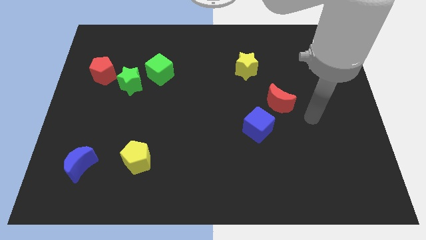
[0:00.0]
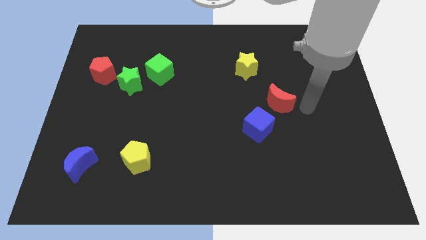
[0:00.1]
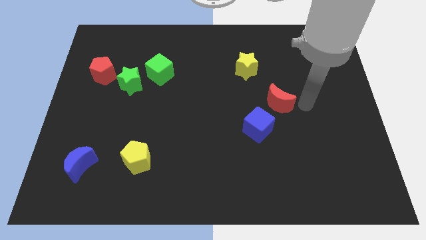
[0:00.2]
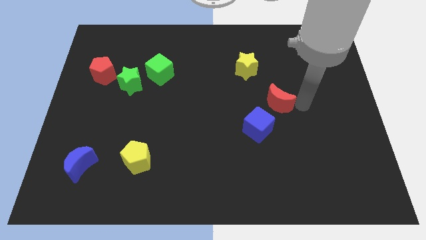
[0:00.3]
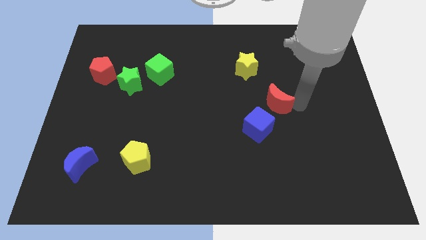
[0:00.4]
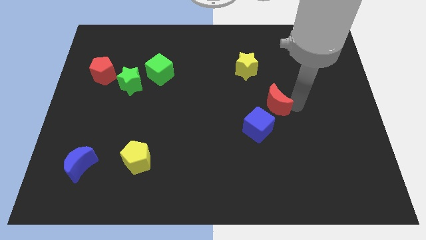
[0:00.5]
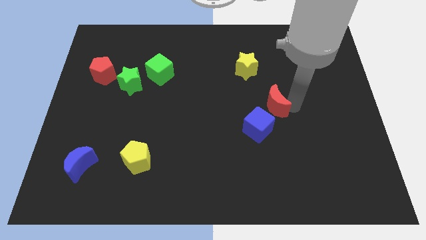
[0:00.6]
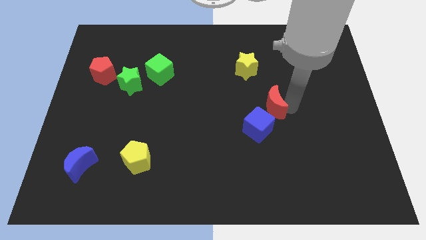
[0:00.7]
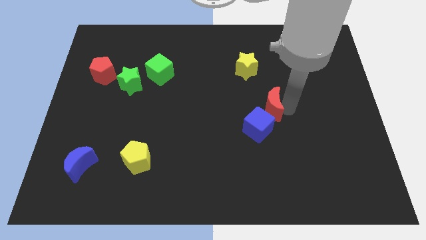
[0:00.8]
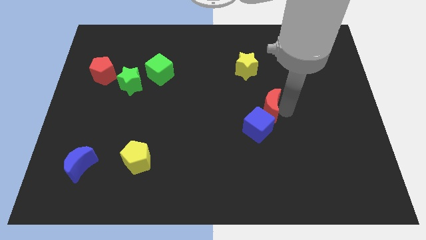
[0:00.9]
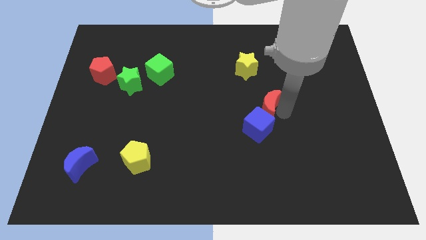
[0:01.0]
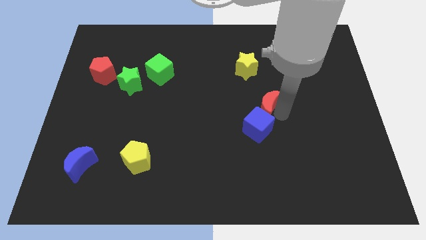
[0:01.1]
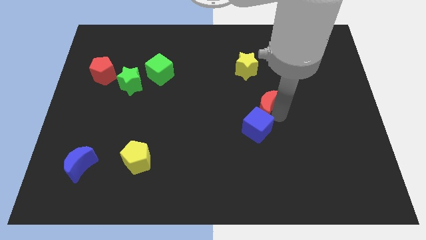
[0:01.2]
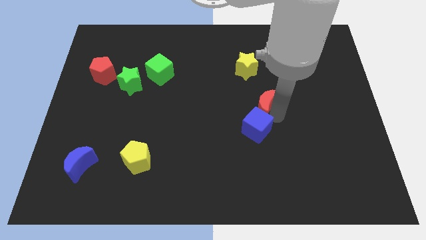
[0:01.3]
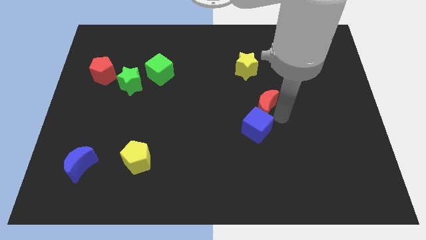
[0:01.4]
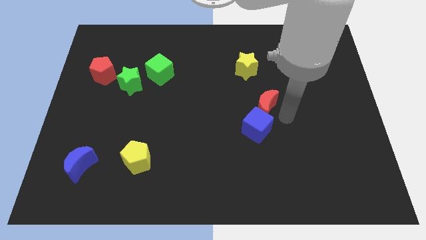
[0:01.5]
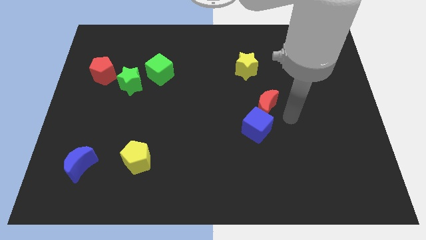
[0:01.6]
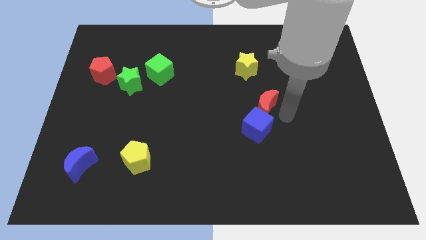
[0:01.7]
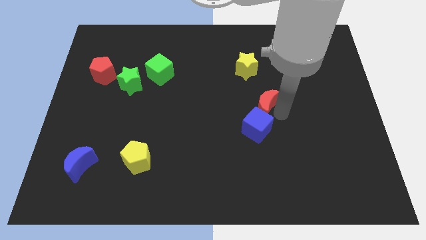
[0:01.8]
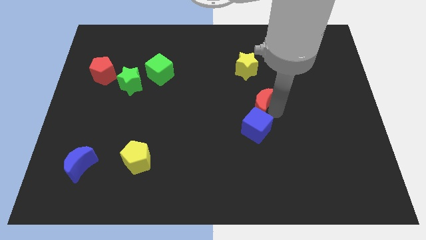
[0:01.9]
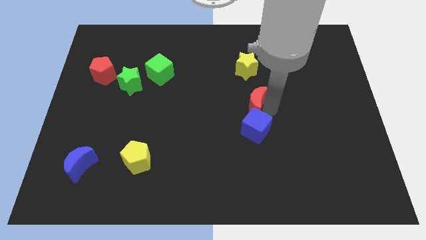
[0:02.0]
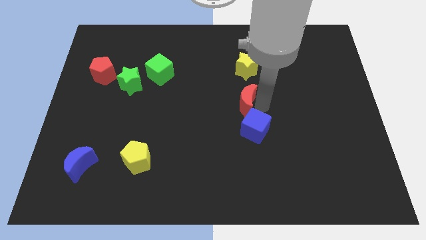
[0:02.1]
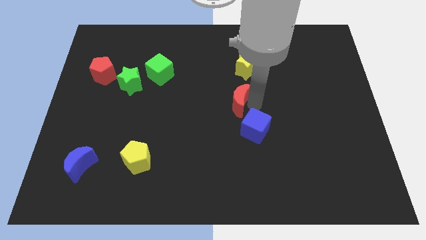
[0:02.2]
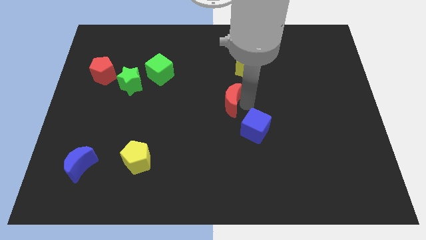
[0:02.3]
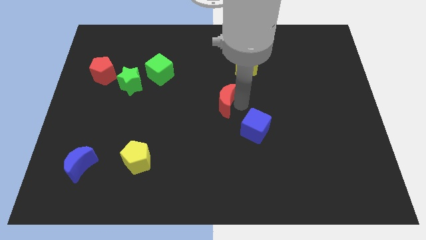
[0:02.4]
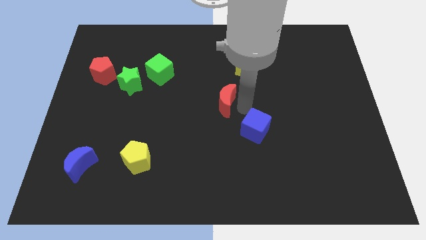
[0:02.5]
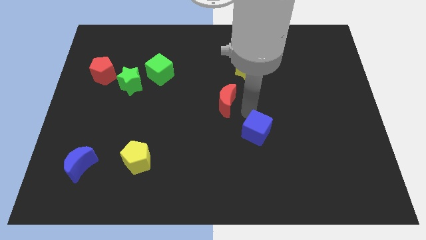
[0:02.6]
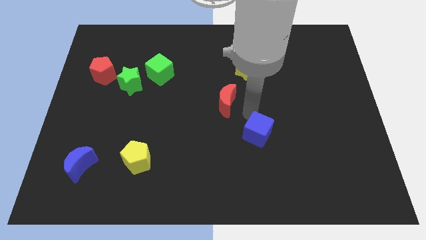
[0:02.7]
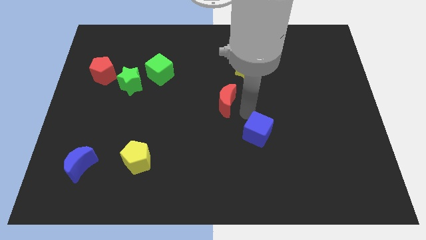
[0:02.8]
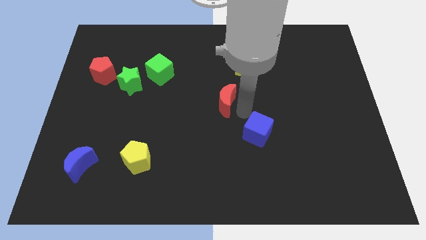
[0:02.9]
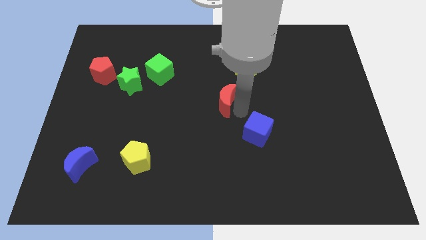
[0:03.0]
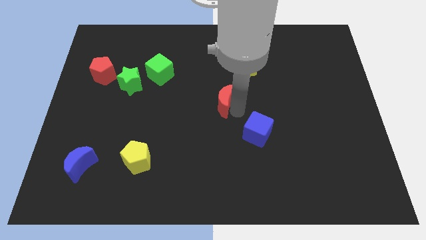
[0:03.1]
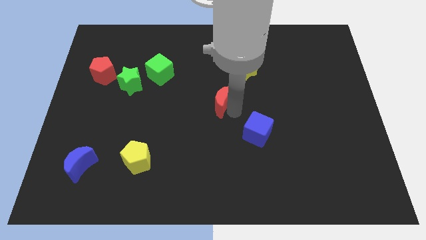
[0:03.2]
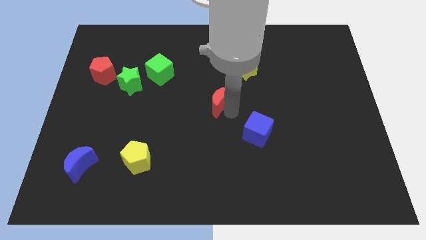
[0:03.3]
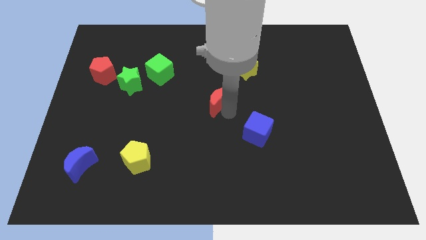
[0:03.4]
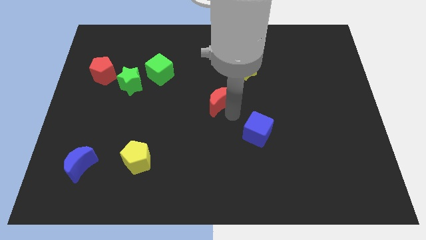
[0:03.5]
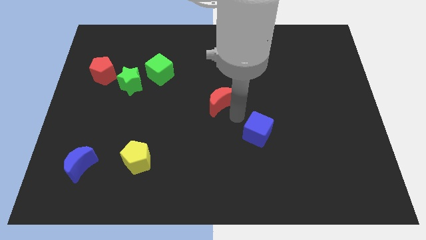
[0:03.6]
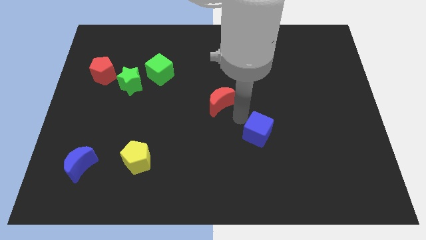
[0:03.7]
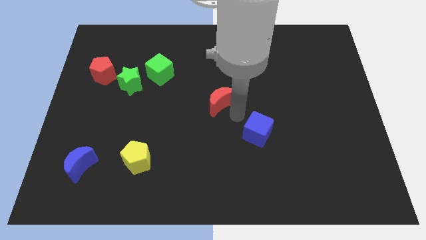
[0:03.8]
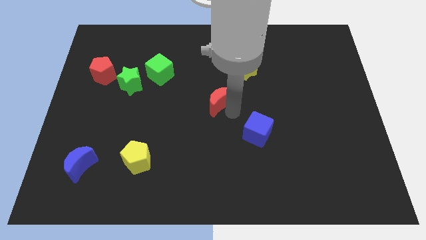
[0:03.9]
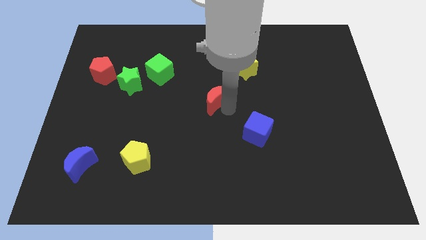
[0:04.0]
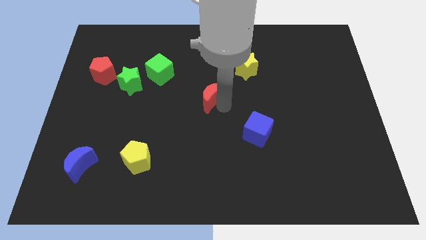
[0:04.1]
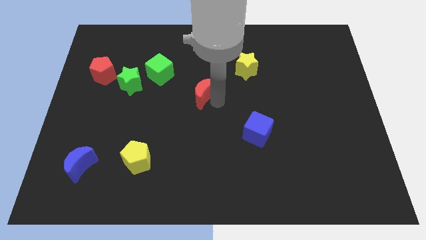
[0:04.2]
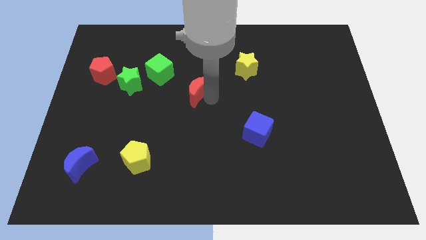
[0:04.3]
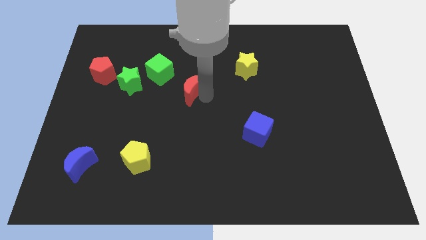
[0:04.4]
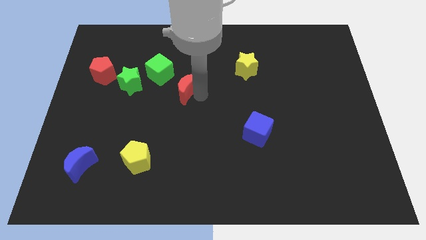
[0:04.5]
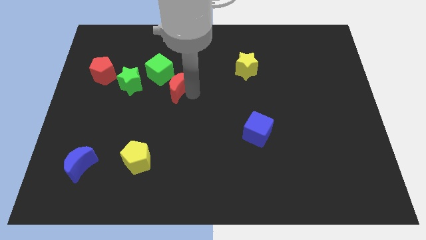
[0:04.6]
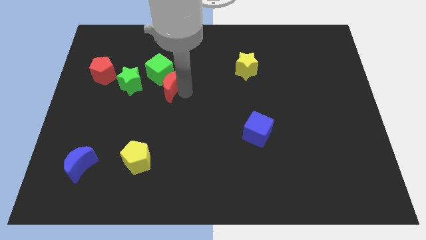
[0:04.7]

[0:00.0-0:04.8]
put the red moon towards the green cube

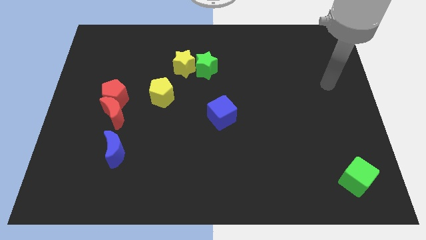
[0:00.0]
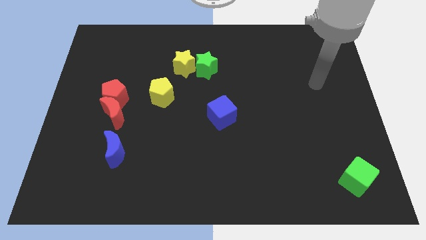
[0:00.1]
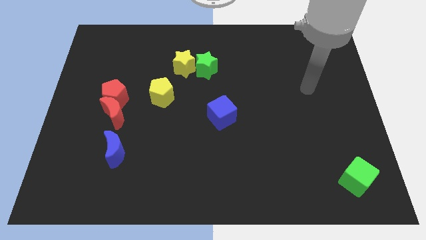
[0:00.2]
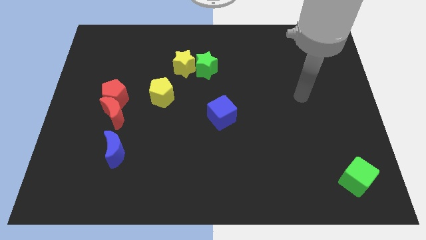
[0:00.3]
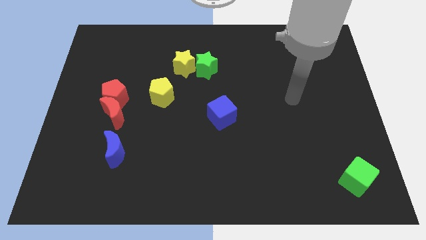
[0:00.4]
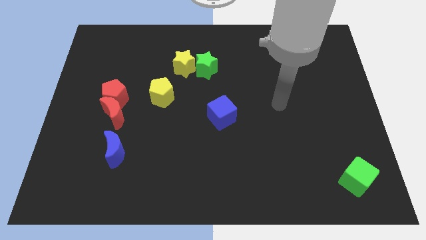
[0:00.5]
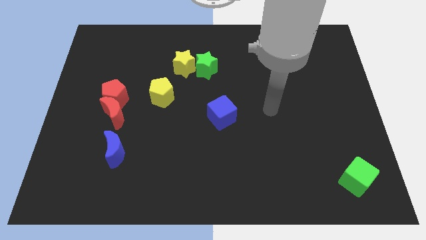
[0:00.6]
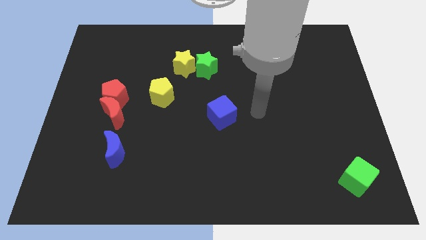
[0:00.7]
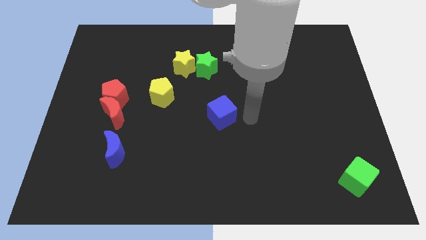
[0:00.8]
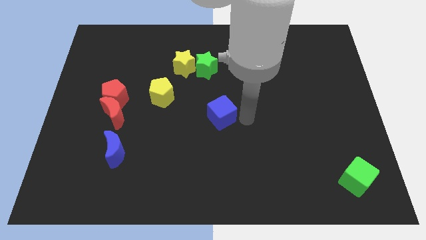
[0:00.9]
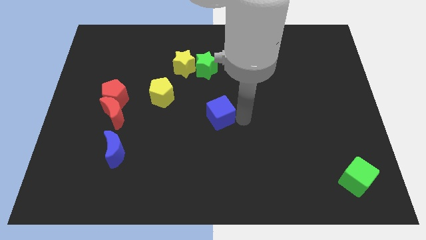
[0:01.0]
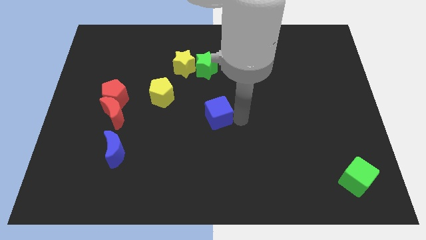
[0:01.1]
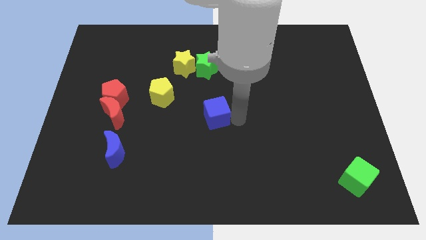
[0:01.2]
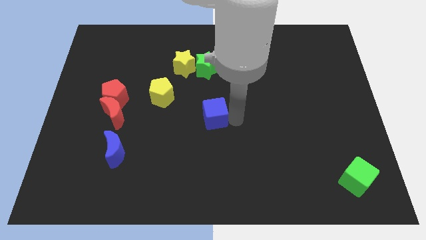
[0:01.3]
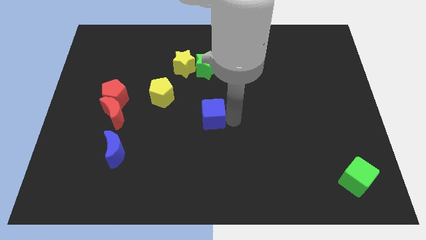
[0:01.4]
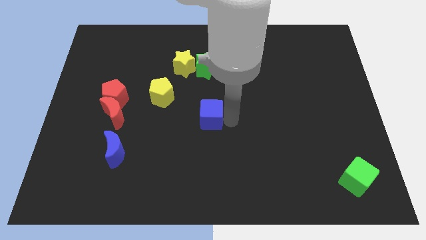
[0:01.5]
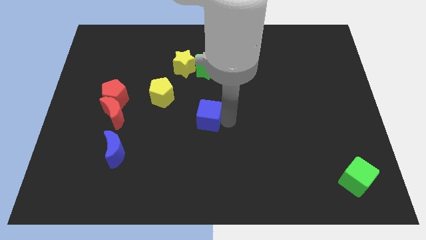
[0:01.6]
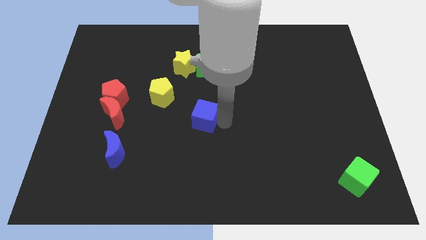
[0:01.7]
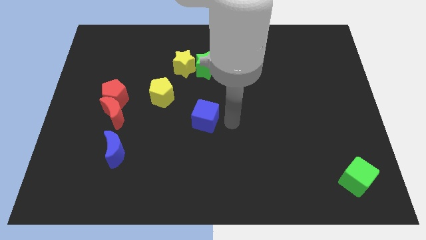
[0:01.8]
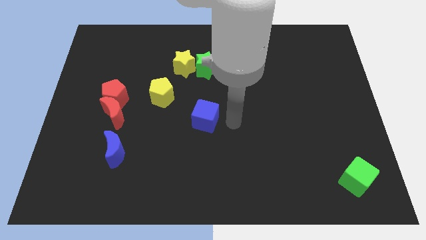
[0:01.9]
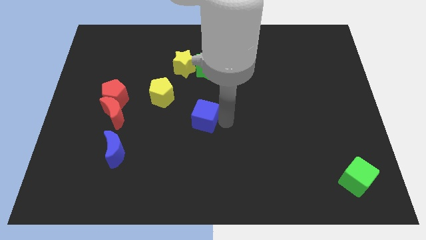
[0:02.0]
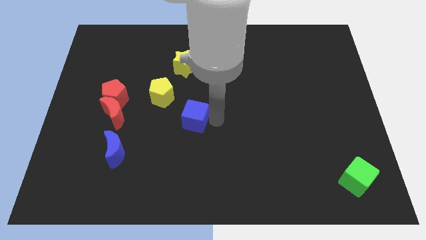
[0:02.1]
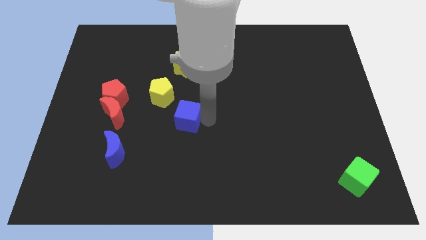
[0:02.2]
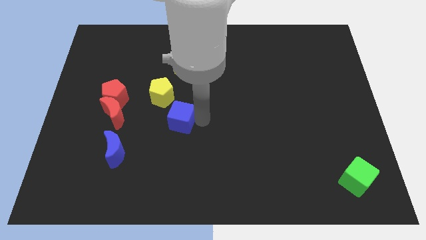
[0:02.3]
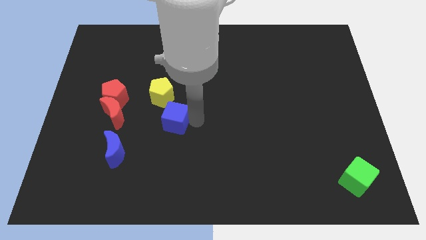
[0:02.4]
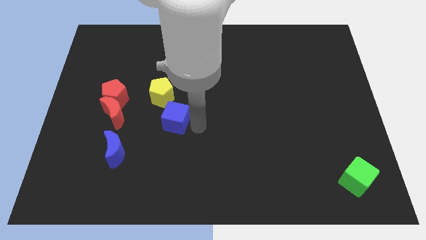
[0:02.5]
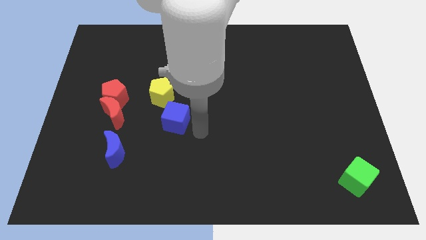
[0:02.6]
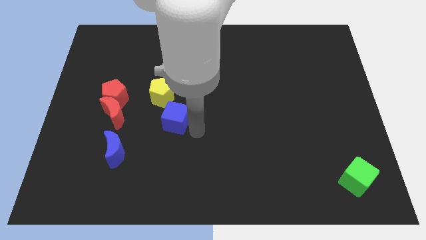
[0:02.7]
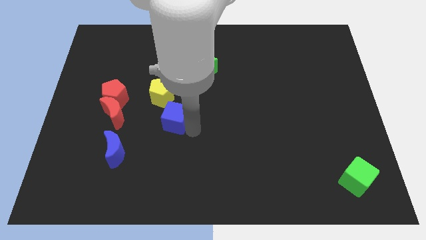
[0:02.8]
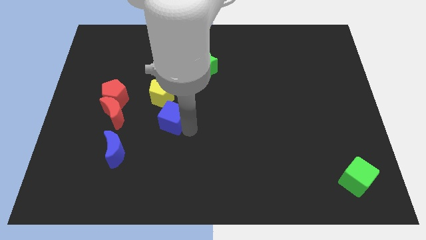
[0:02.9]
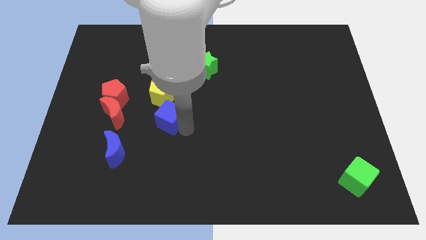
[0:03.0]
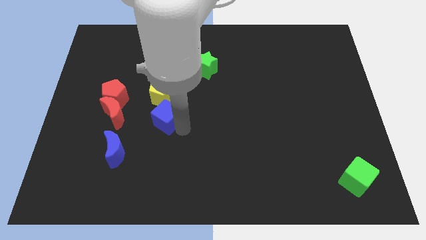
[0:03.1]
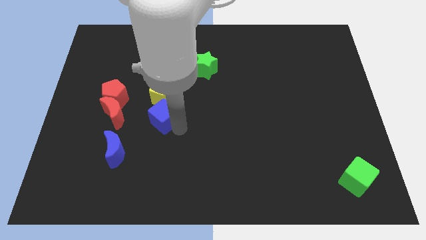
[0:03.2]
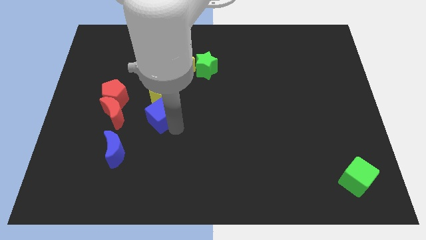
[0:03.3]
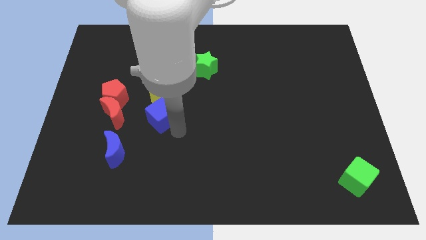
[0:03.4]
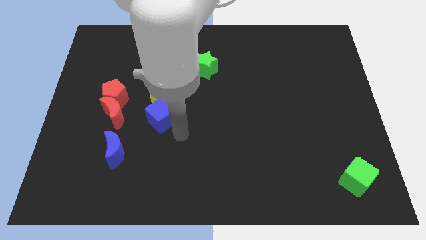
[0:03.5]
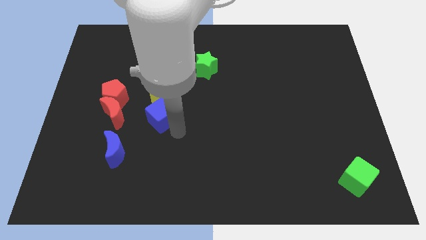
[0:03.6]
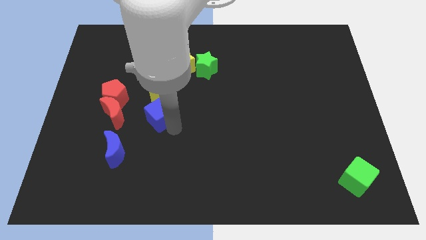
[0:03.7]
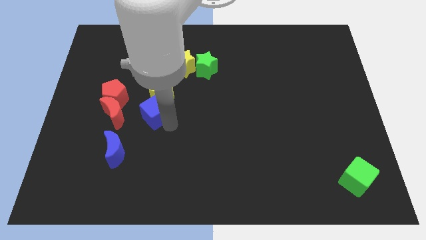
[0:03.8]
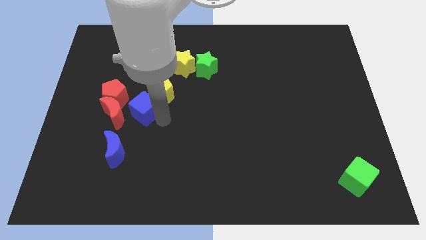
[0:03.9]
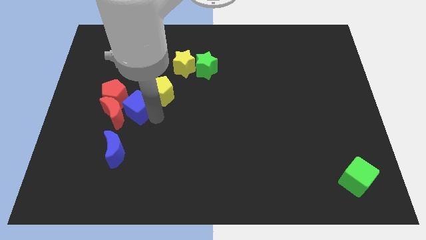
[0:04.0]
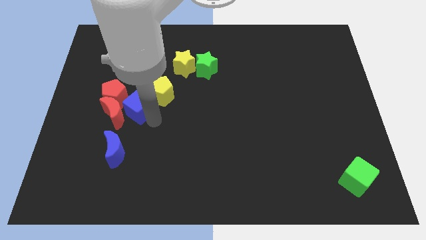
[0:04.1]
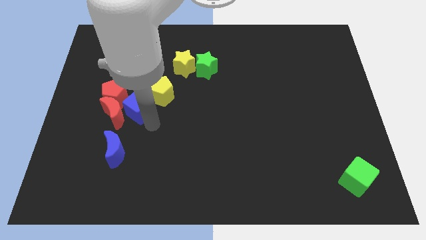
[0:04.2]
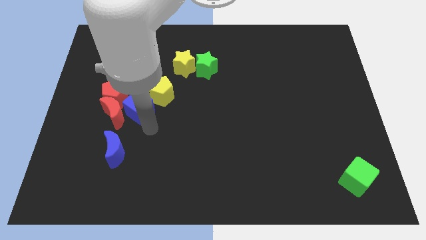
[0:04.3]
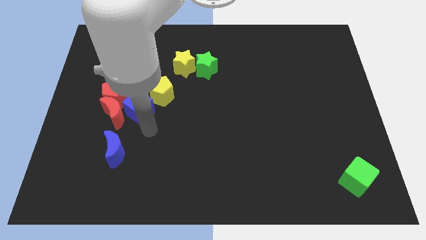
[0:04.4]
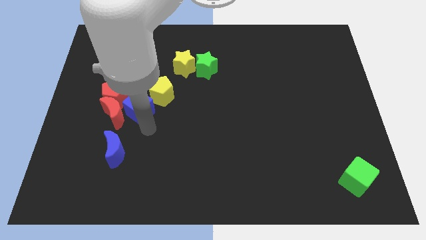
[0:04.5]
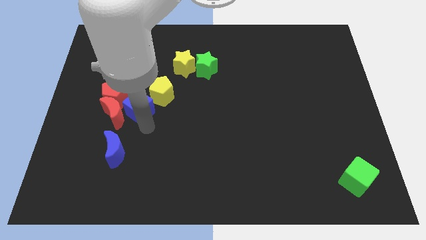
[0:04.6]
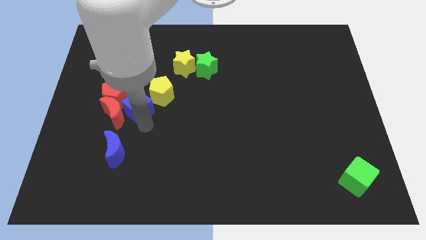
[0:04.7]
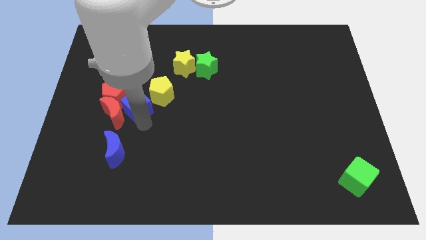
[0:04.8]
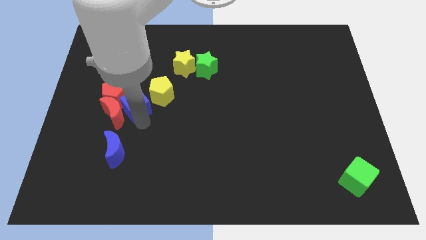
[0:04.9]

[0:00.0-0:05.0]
move the blue cube next to the red pentagon
